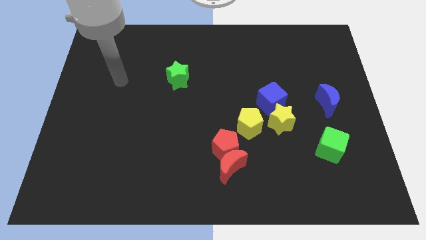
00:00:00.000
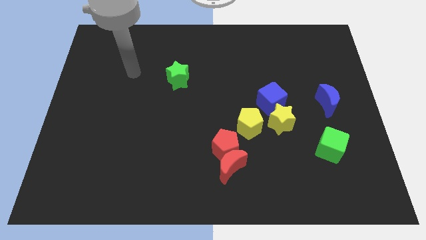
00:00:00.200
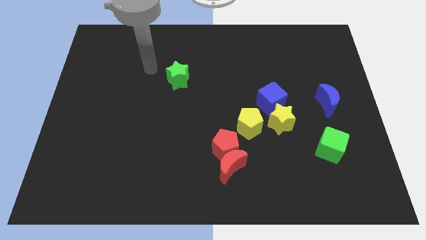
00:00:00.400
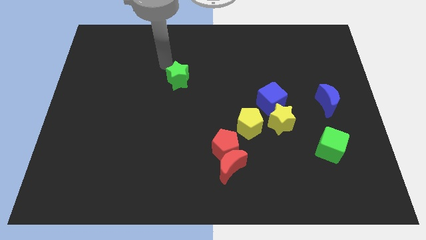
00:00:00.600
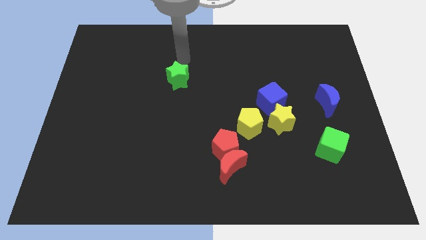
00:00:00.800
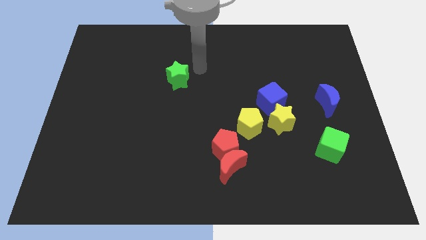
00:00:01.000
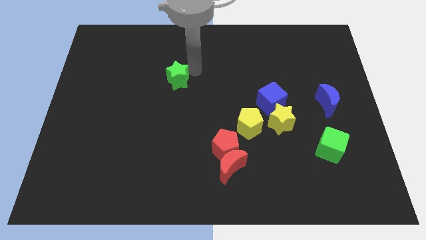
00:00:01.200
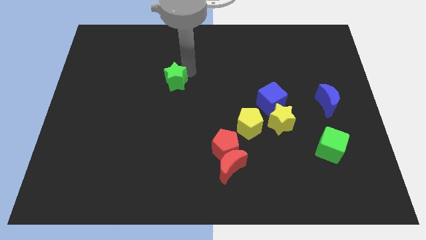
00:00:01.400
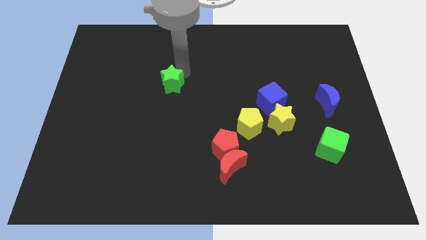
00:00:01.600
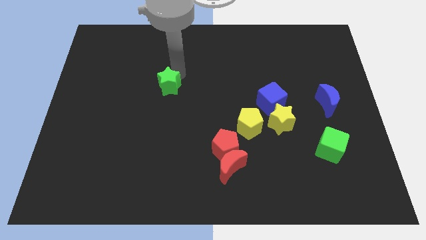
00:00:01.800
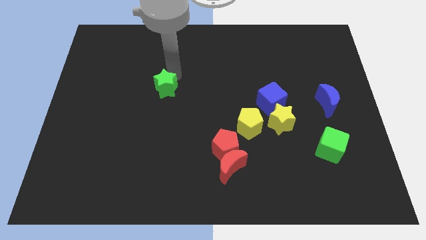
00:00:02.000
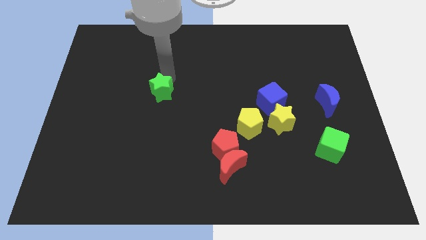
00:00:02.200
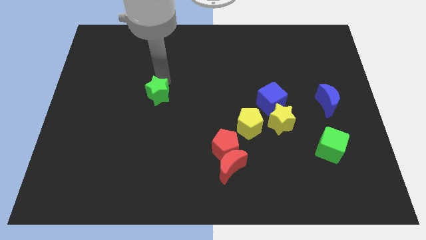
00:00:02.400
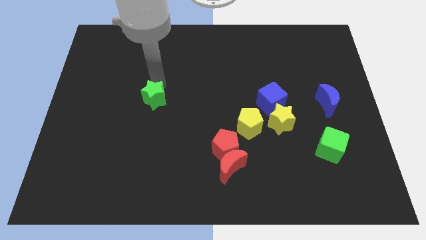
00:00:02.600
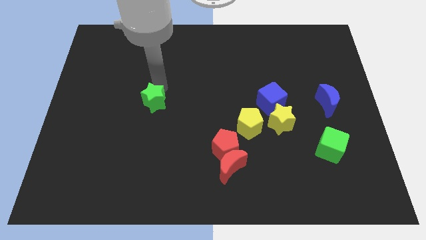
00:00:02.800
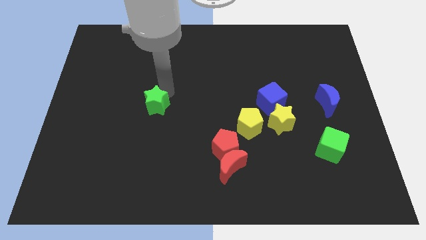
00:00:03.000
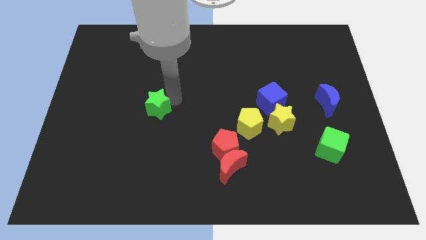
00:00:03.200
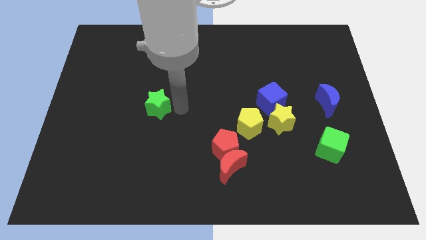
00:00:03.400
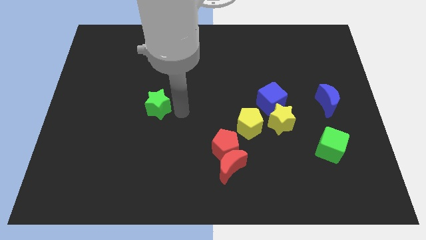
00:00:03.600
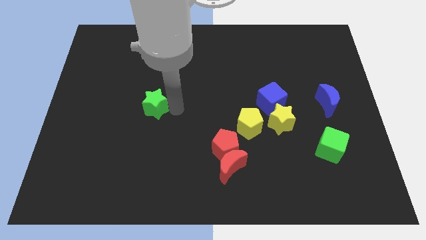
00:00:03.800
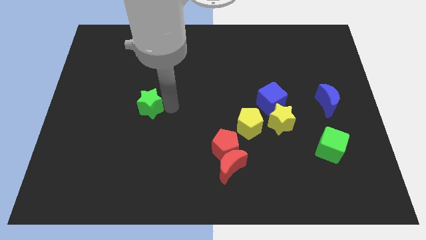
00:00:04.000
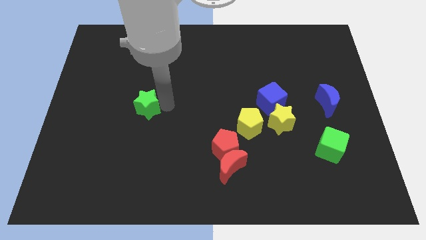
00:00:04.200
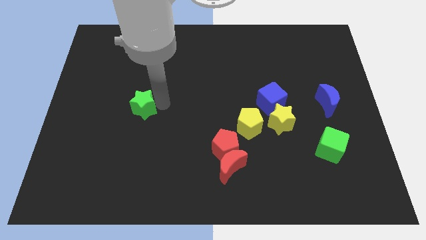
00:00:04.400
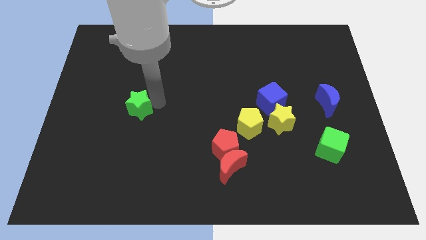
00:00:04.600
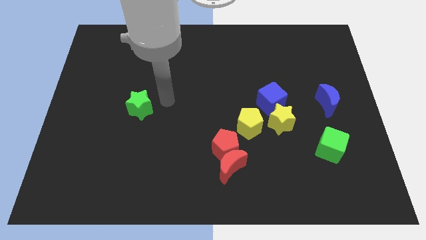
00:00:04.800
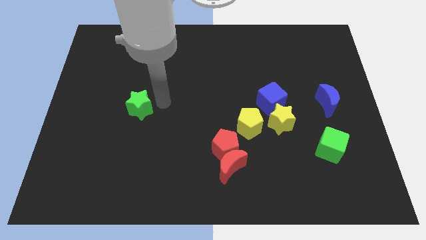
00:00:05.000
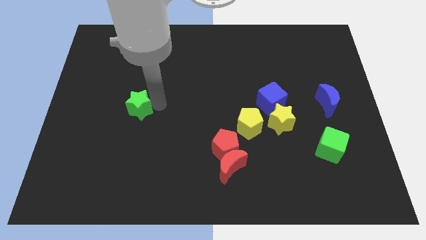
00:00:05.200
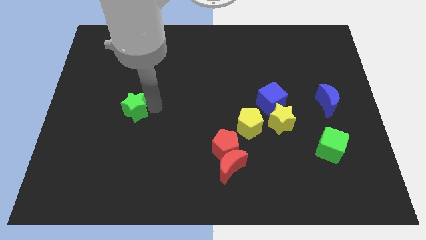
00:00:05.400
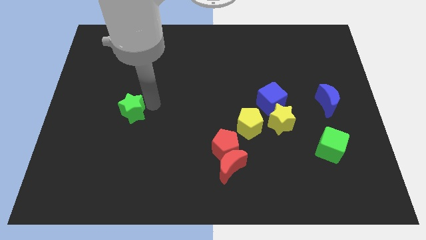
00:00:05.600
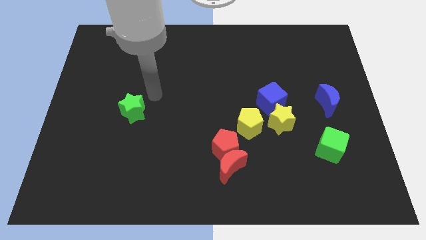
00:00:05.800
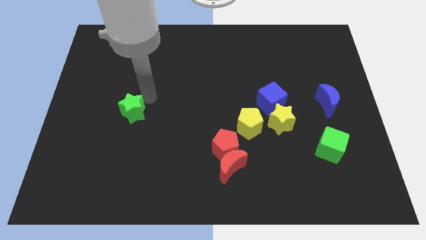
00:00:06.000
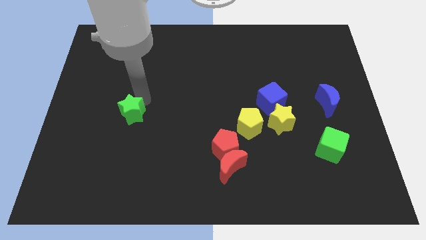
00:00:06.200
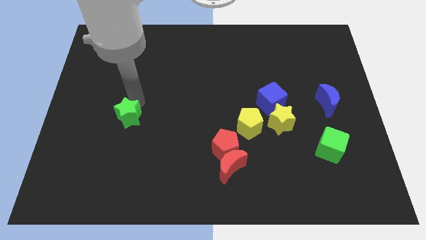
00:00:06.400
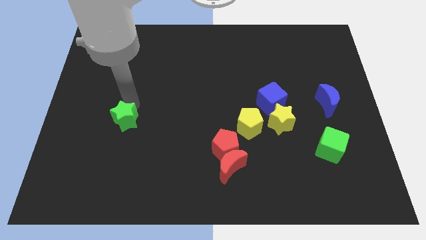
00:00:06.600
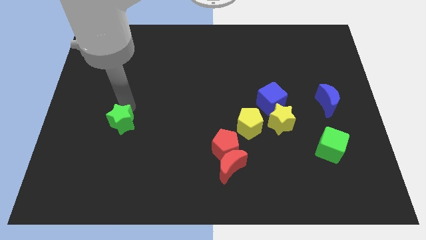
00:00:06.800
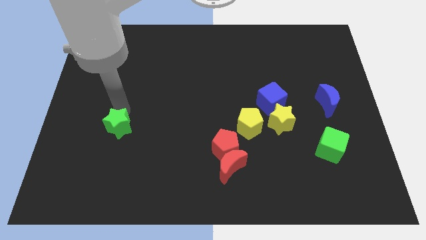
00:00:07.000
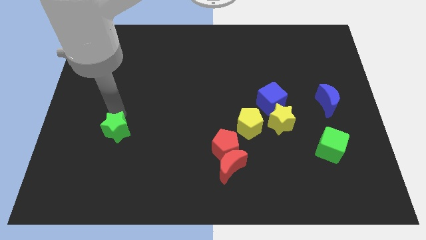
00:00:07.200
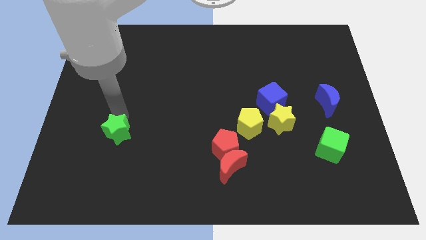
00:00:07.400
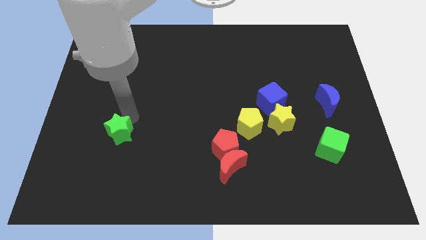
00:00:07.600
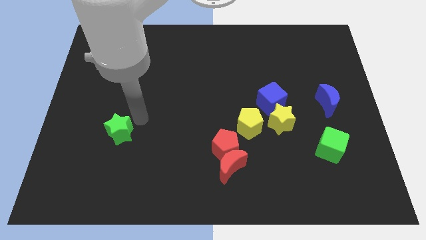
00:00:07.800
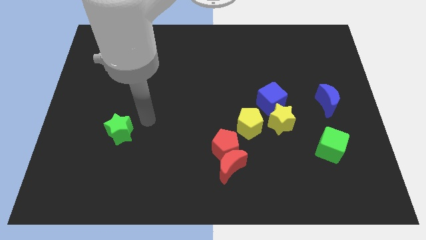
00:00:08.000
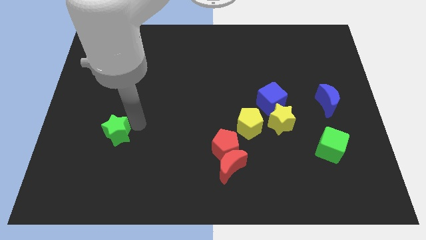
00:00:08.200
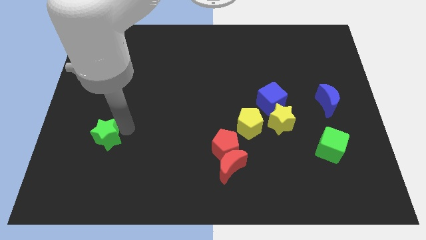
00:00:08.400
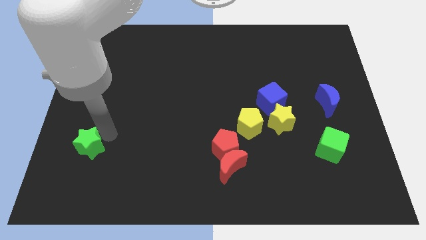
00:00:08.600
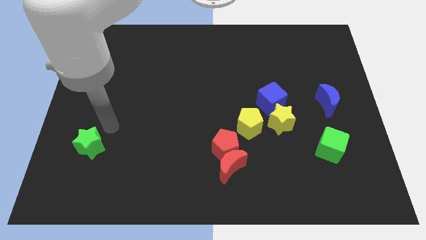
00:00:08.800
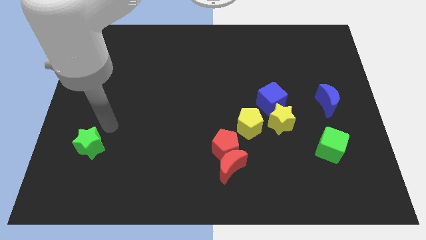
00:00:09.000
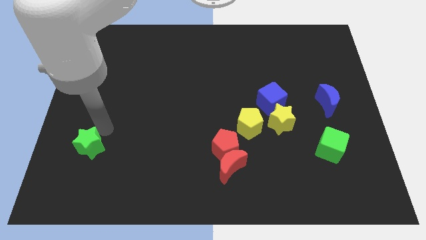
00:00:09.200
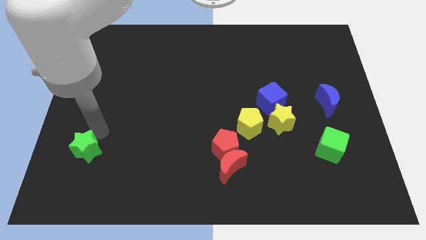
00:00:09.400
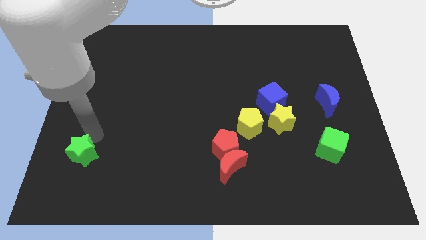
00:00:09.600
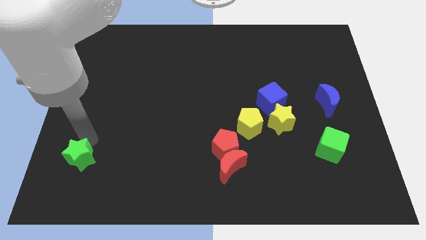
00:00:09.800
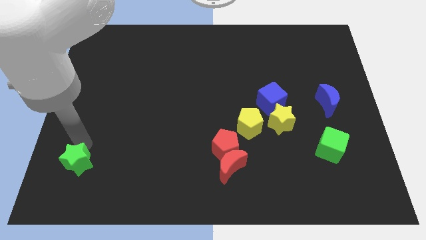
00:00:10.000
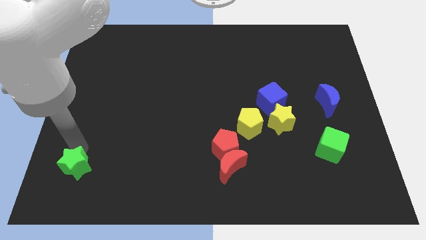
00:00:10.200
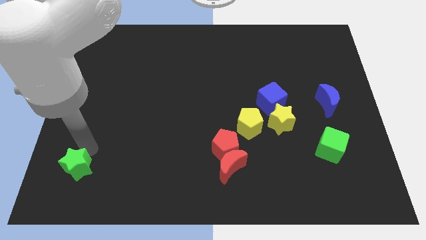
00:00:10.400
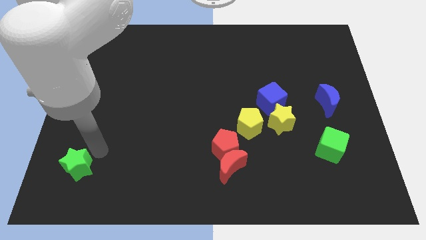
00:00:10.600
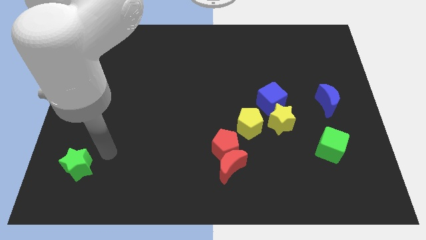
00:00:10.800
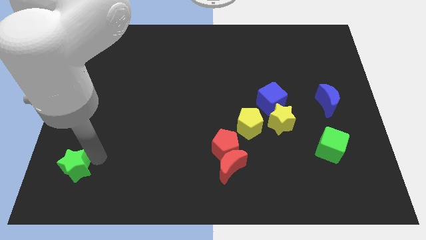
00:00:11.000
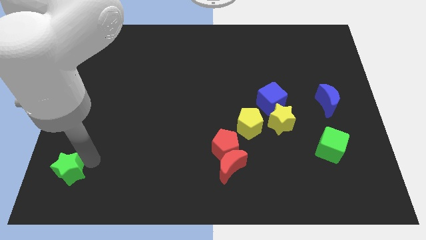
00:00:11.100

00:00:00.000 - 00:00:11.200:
put the green star to the bottom left of the board
